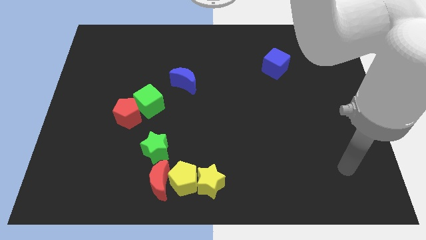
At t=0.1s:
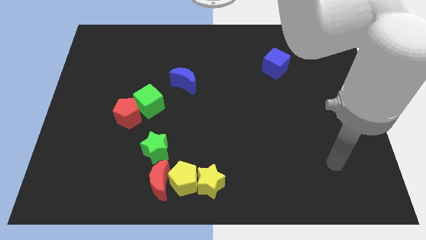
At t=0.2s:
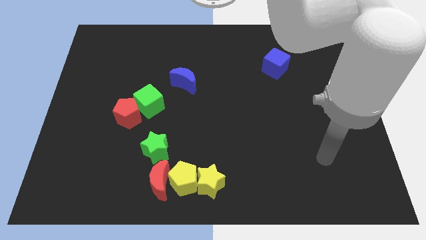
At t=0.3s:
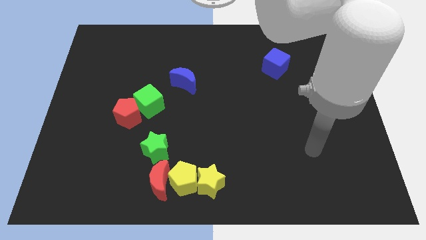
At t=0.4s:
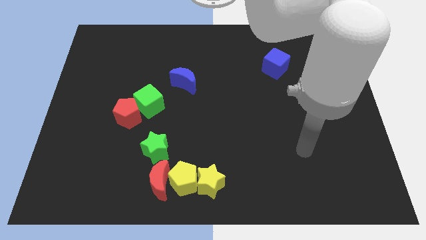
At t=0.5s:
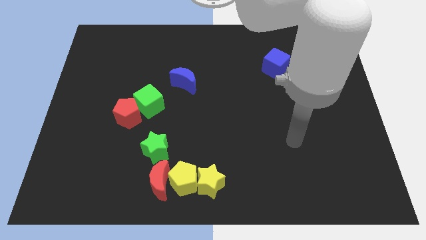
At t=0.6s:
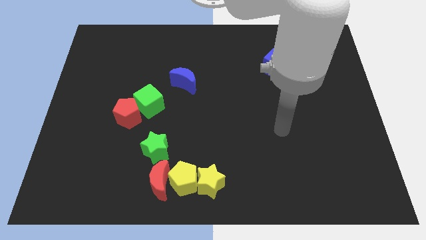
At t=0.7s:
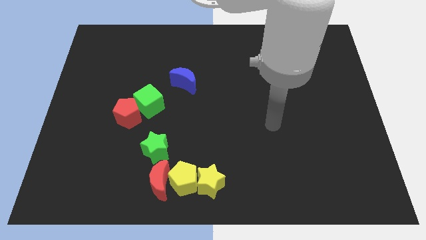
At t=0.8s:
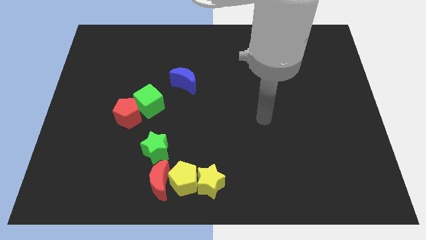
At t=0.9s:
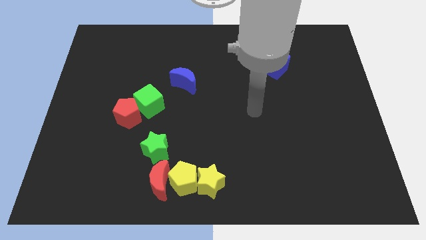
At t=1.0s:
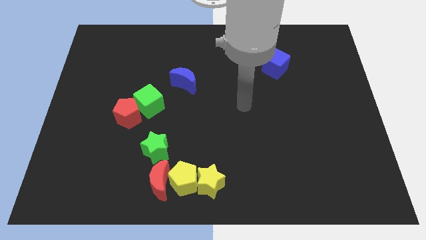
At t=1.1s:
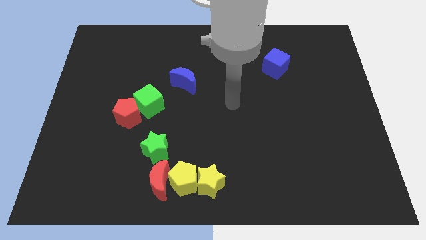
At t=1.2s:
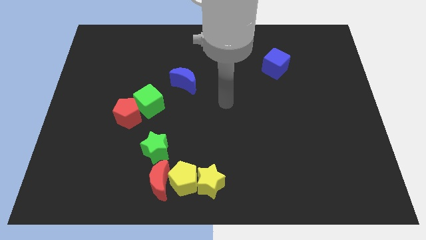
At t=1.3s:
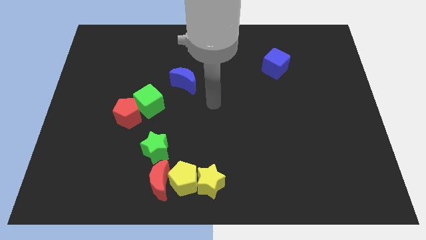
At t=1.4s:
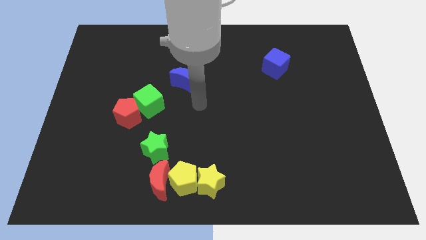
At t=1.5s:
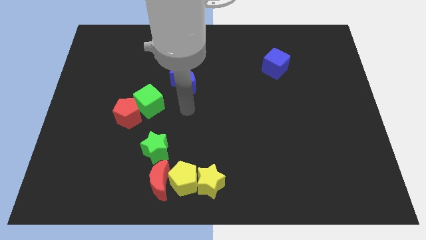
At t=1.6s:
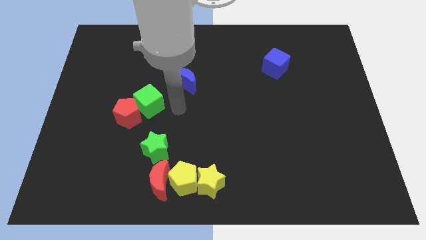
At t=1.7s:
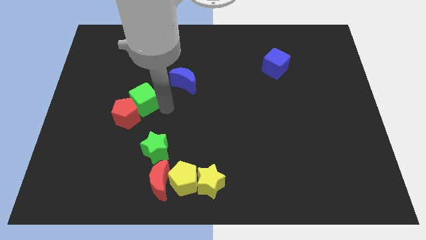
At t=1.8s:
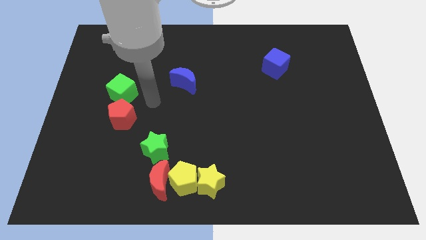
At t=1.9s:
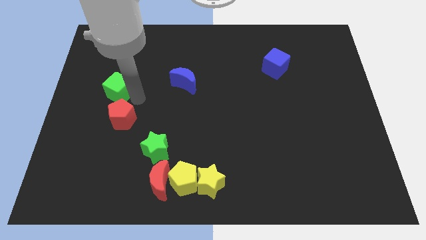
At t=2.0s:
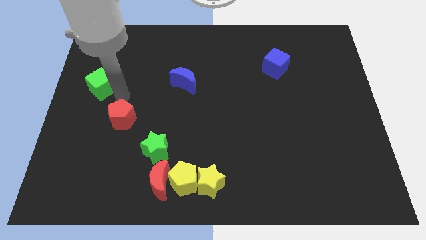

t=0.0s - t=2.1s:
pull the red pentagon apart from the green cube

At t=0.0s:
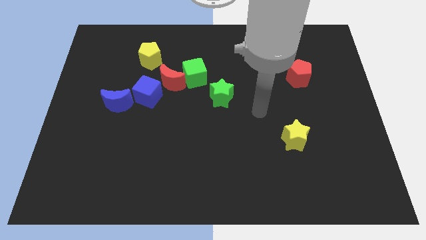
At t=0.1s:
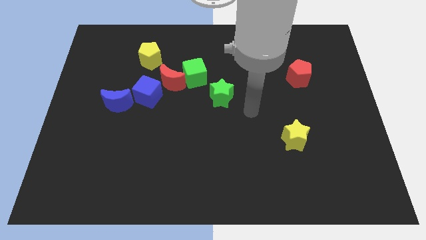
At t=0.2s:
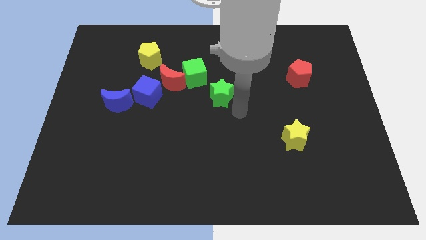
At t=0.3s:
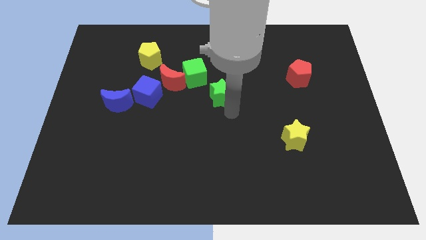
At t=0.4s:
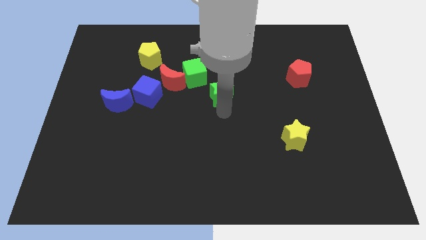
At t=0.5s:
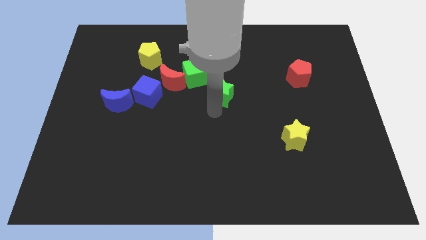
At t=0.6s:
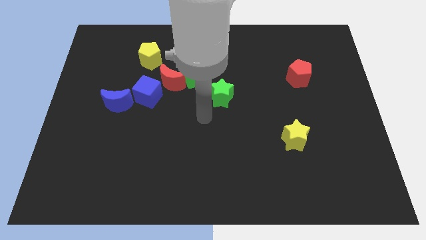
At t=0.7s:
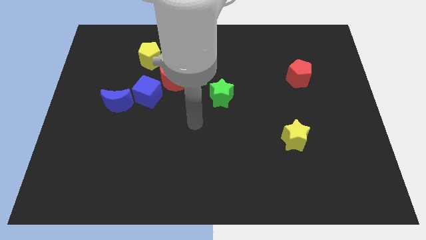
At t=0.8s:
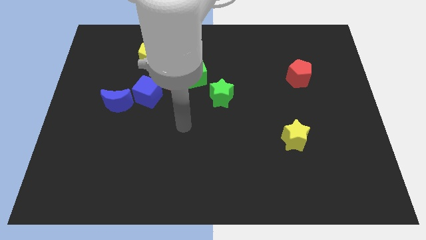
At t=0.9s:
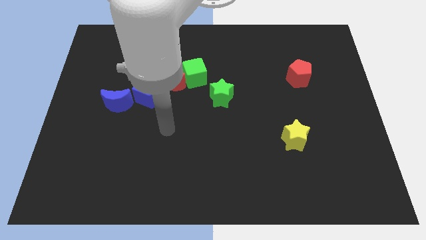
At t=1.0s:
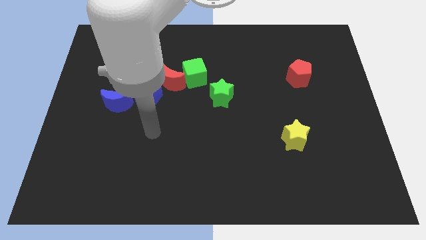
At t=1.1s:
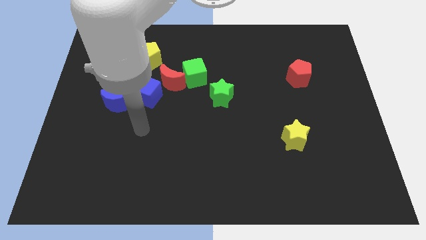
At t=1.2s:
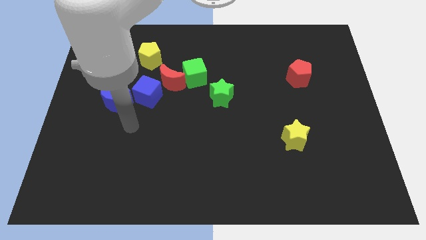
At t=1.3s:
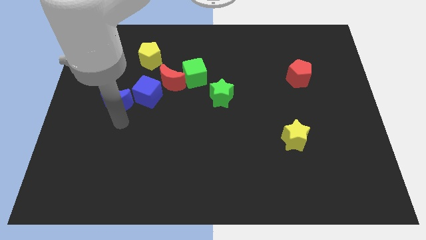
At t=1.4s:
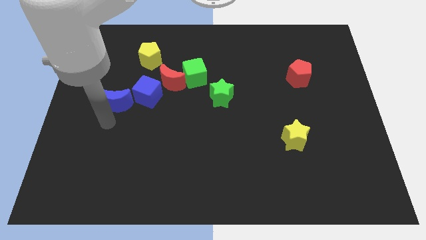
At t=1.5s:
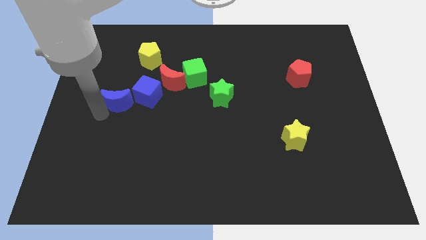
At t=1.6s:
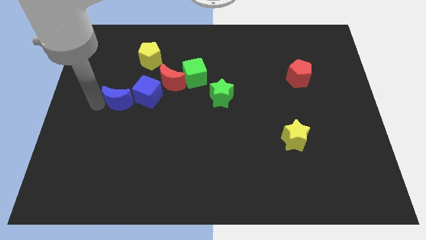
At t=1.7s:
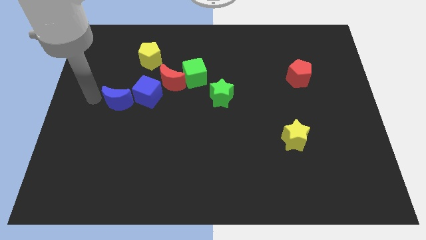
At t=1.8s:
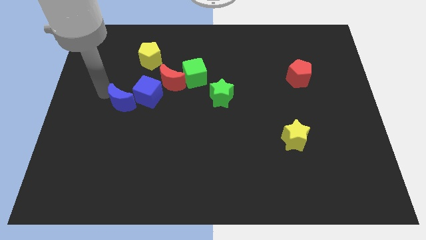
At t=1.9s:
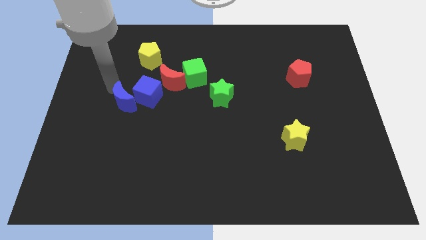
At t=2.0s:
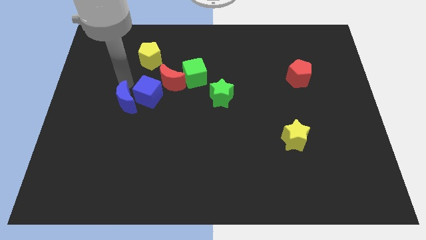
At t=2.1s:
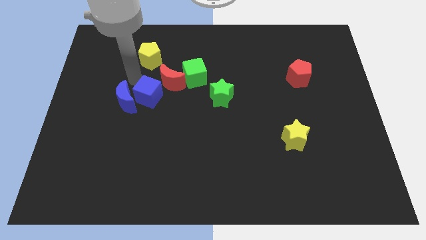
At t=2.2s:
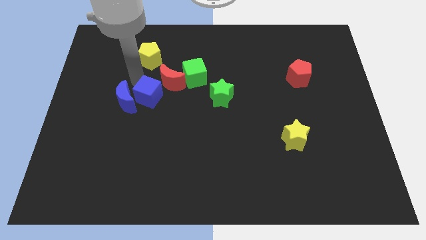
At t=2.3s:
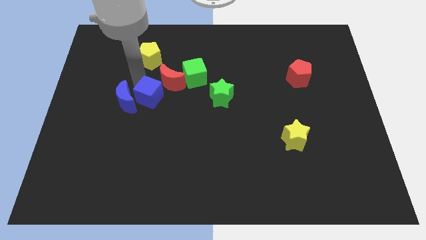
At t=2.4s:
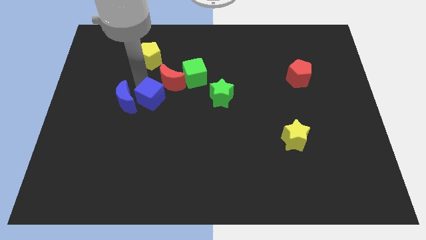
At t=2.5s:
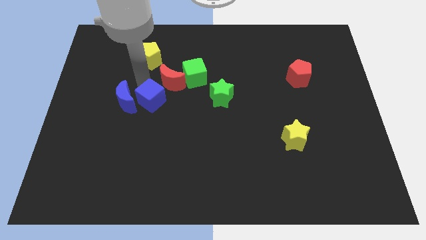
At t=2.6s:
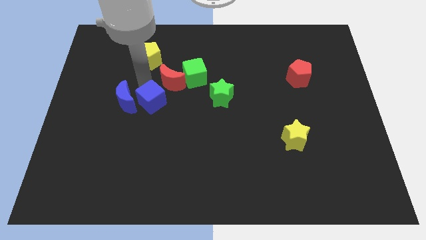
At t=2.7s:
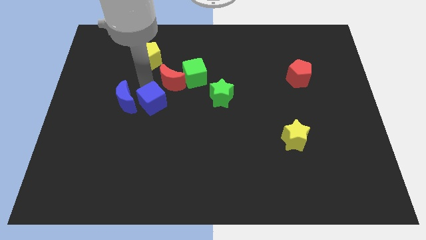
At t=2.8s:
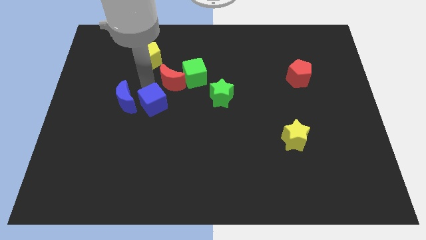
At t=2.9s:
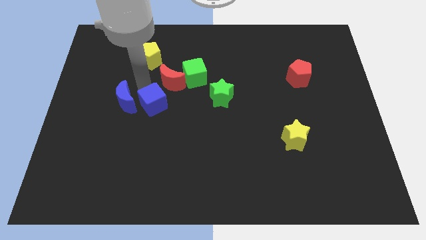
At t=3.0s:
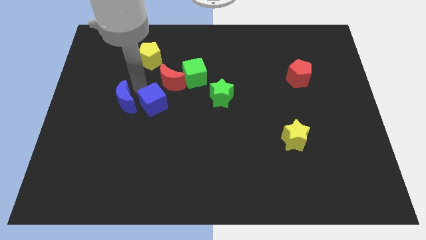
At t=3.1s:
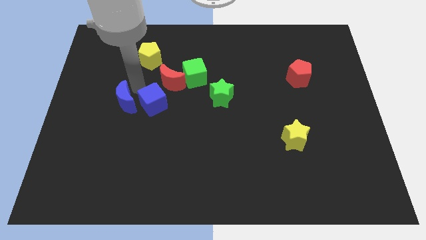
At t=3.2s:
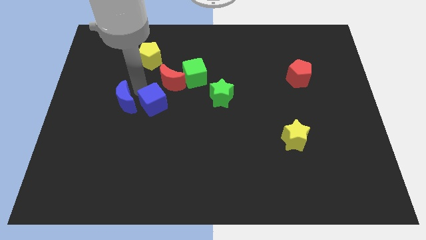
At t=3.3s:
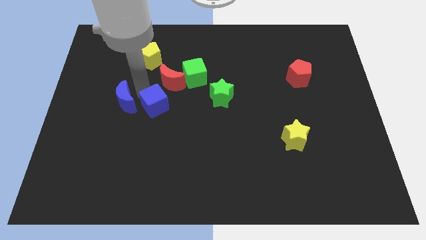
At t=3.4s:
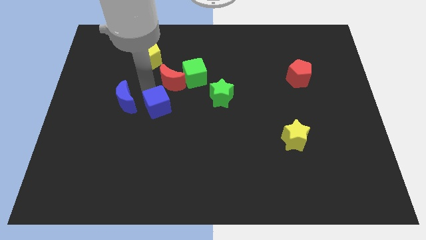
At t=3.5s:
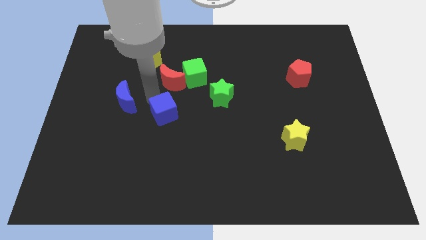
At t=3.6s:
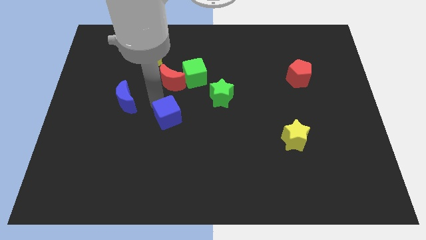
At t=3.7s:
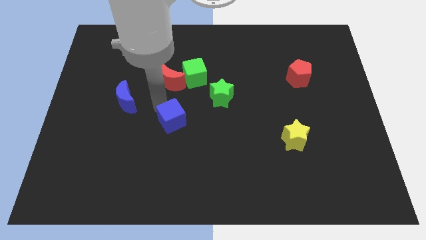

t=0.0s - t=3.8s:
separate the blue cube from the red moon and blue moon

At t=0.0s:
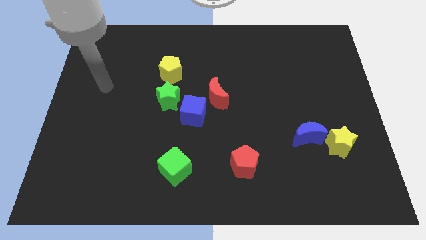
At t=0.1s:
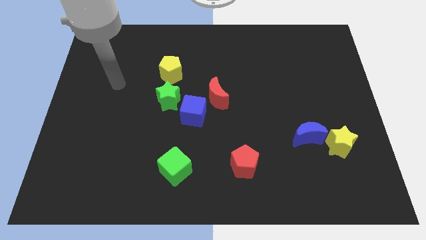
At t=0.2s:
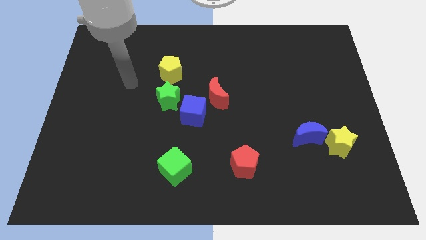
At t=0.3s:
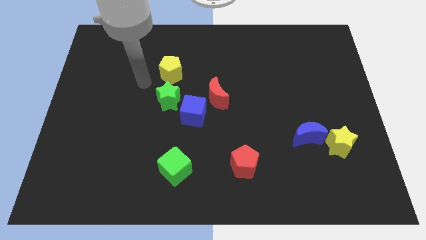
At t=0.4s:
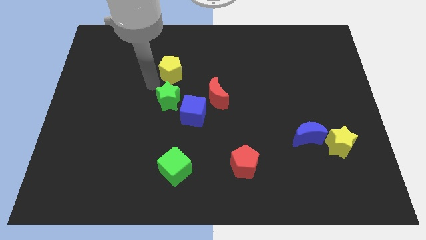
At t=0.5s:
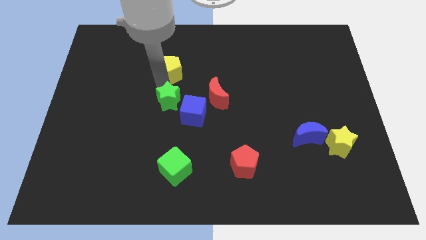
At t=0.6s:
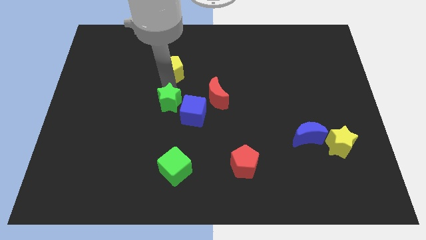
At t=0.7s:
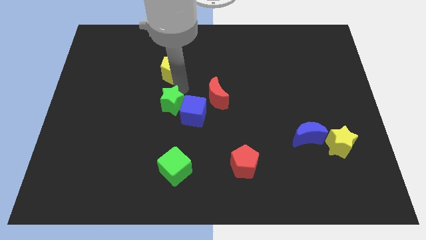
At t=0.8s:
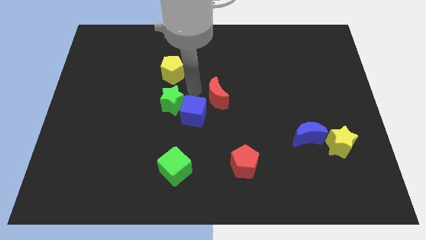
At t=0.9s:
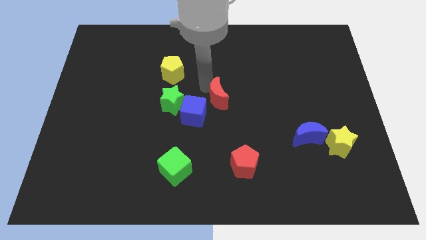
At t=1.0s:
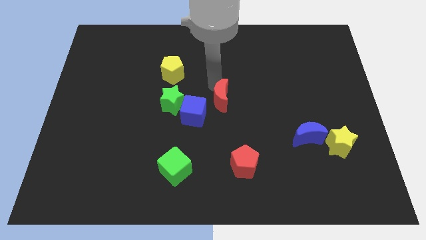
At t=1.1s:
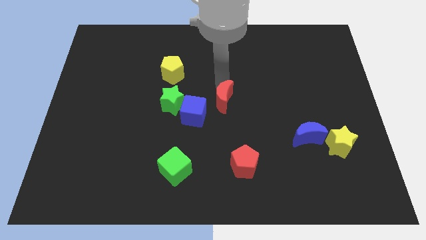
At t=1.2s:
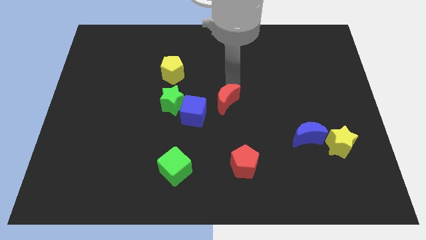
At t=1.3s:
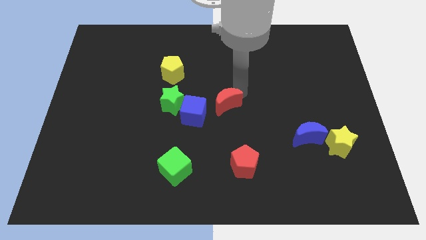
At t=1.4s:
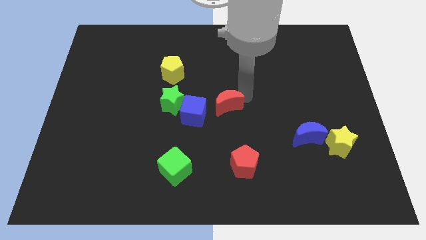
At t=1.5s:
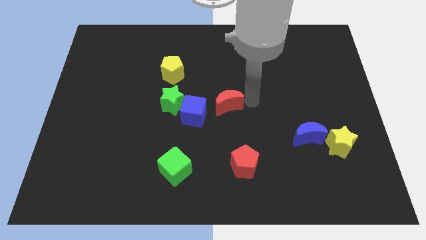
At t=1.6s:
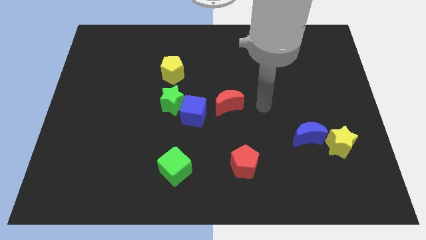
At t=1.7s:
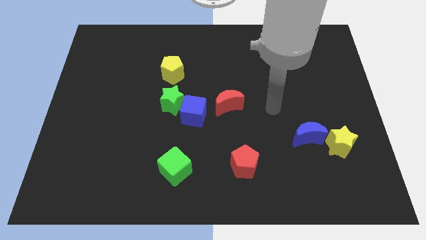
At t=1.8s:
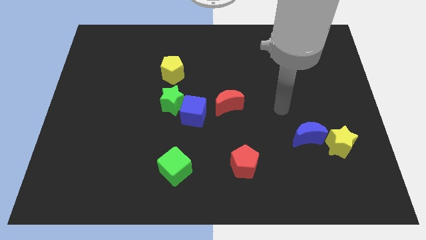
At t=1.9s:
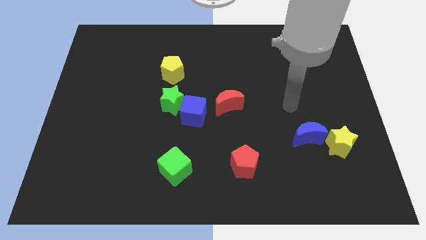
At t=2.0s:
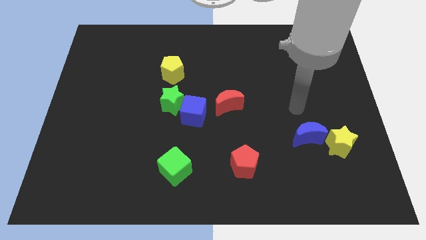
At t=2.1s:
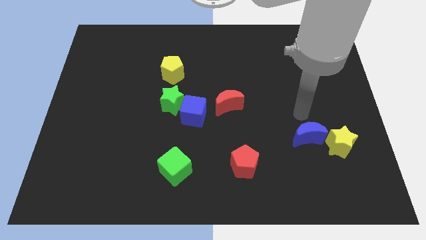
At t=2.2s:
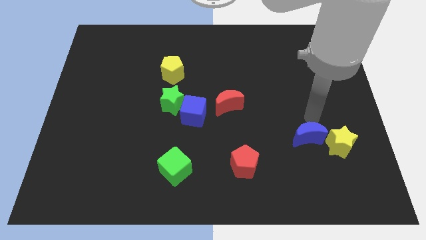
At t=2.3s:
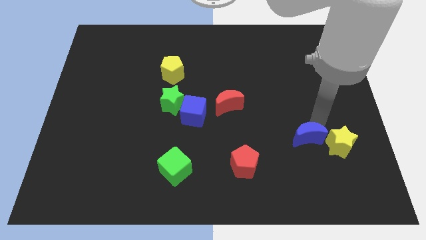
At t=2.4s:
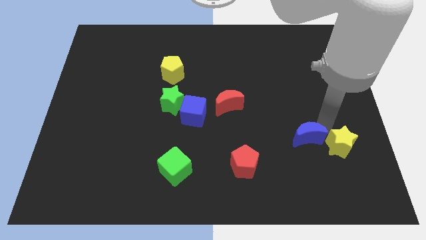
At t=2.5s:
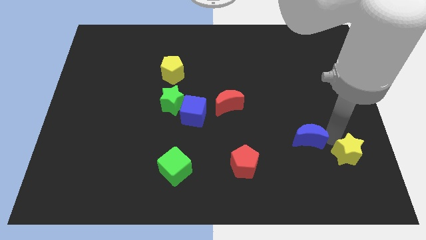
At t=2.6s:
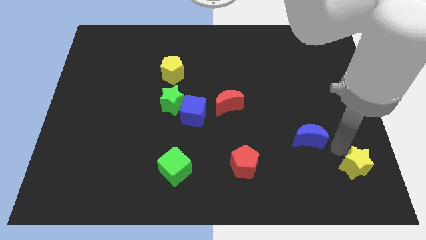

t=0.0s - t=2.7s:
move the blue moon away from the yellow star

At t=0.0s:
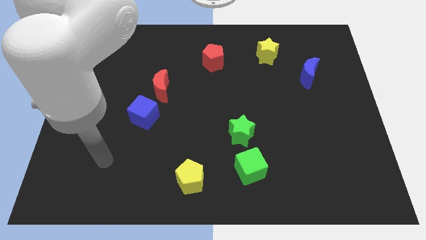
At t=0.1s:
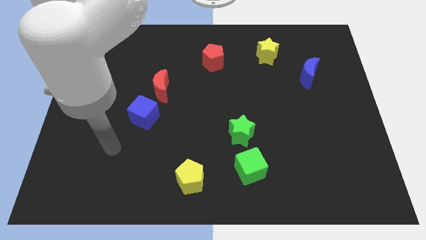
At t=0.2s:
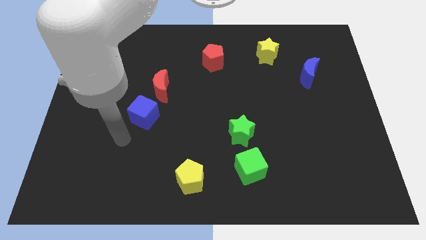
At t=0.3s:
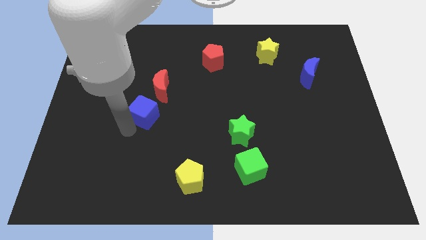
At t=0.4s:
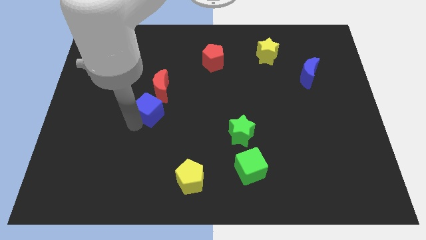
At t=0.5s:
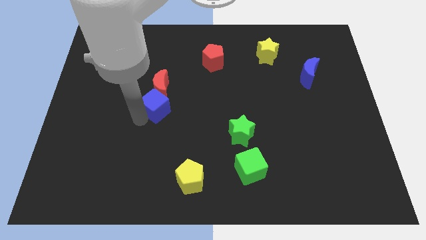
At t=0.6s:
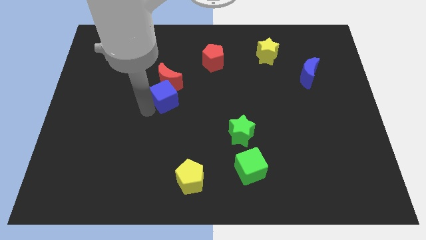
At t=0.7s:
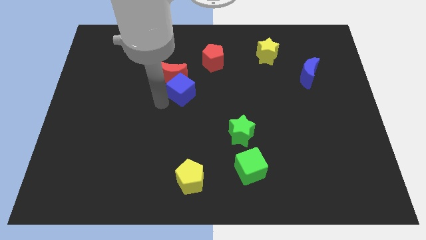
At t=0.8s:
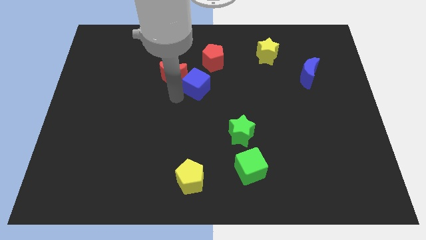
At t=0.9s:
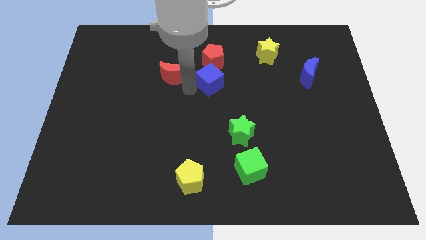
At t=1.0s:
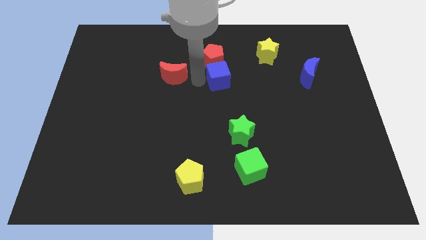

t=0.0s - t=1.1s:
separate the red moon from the blue cube
